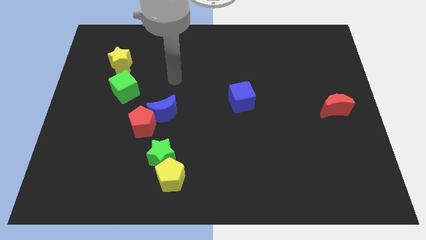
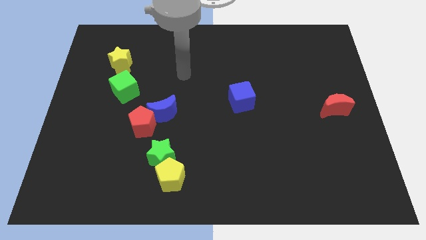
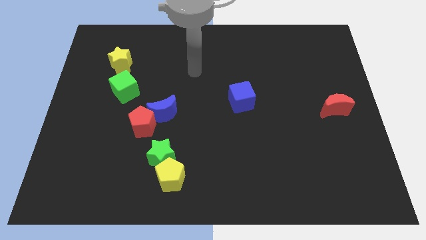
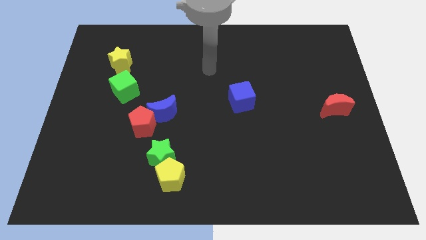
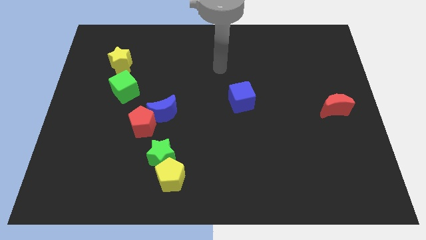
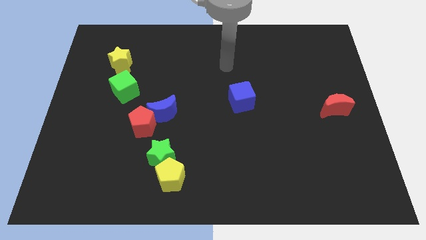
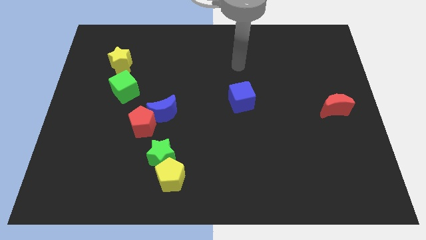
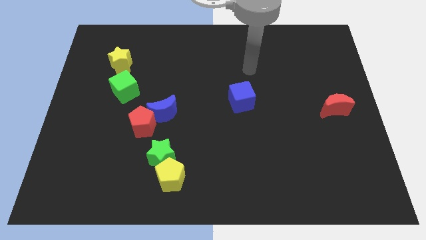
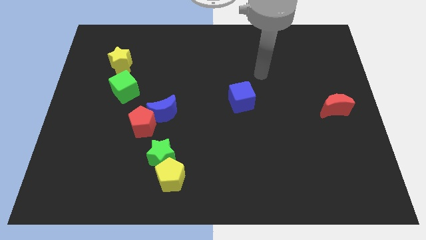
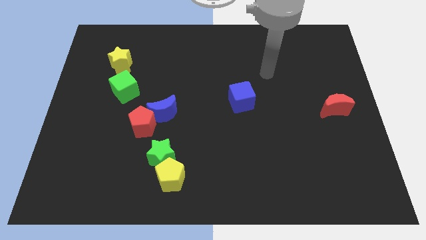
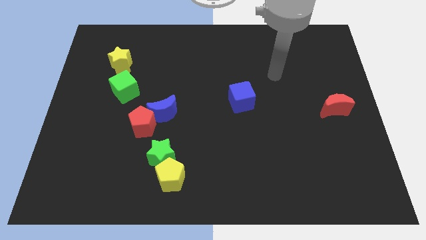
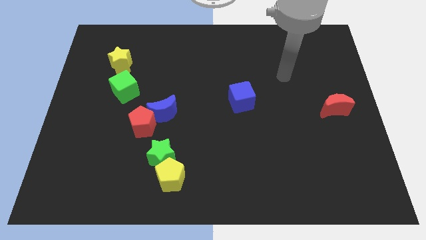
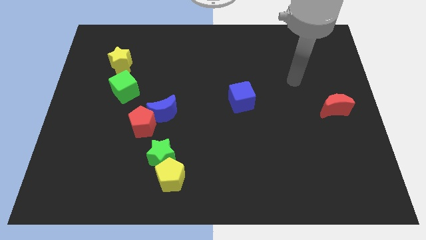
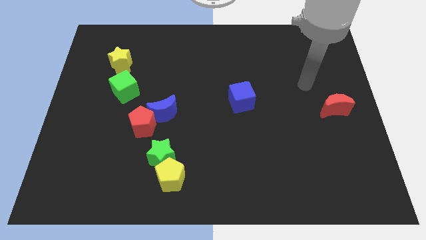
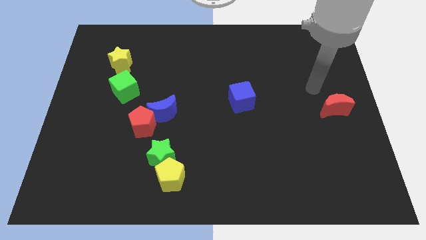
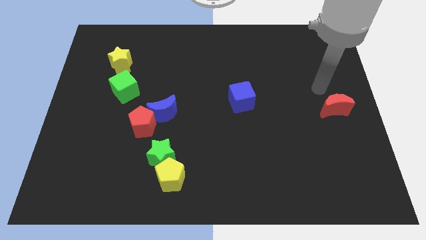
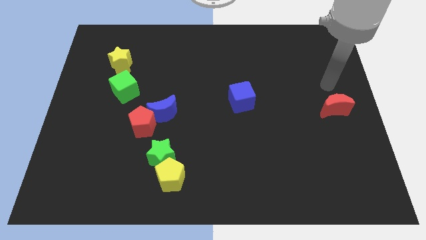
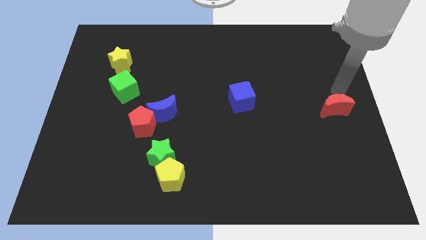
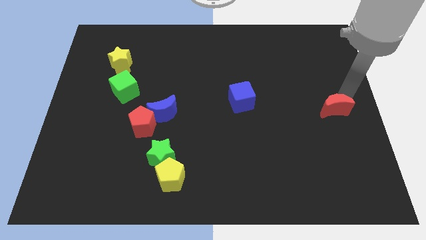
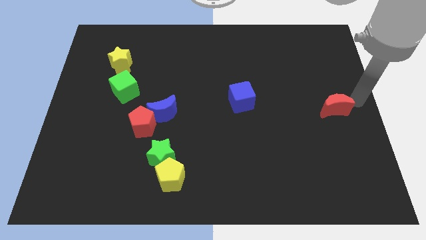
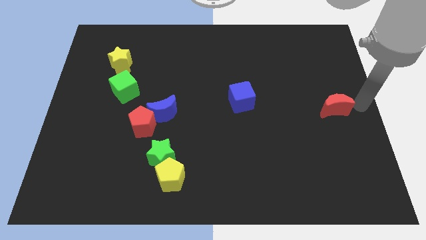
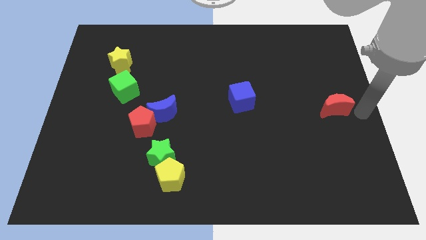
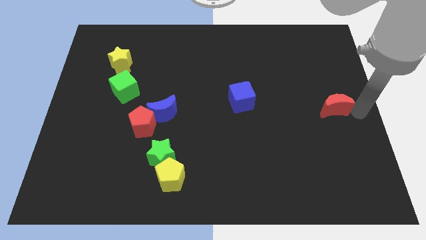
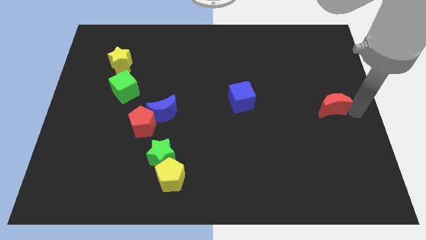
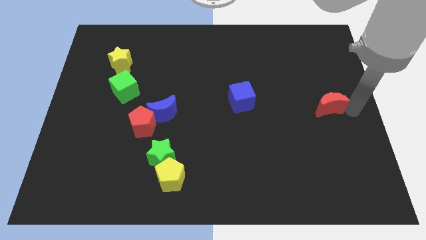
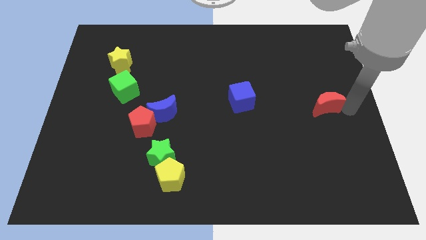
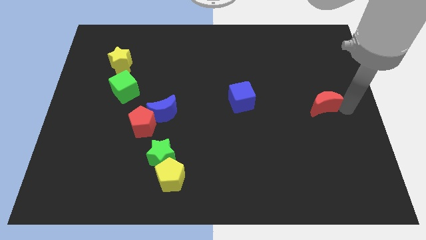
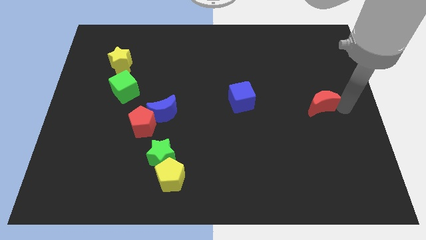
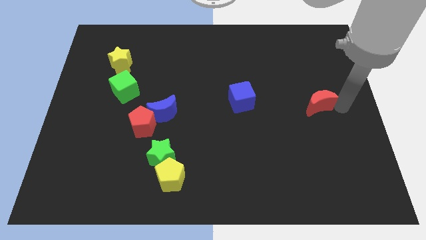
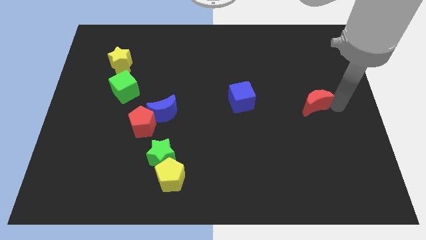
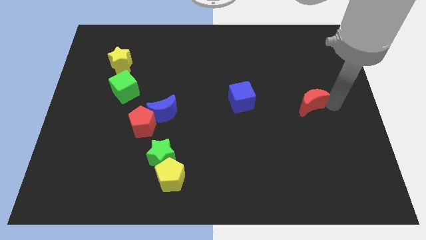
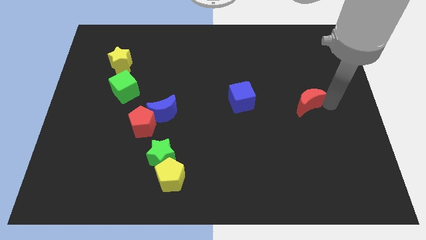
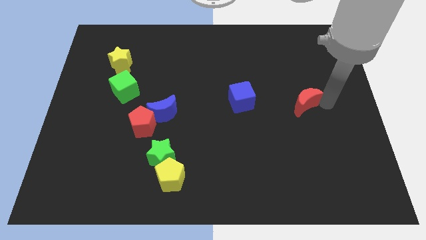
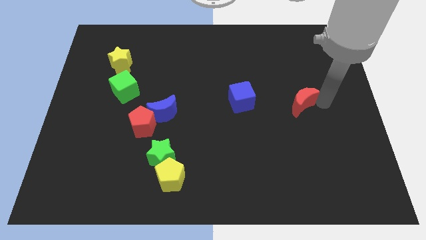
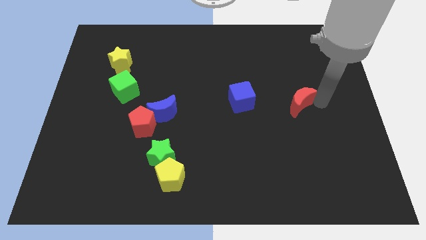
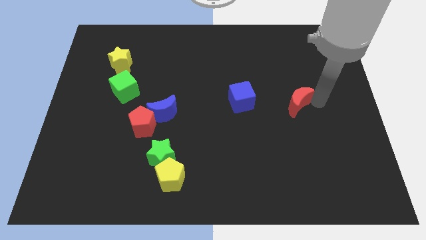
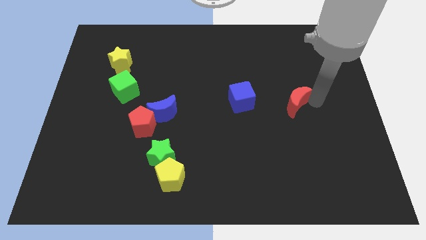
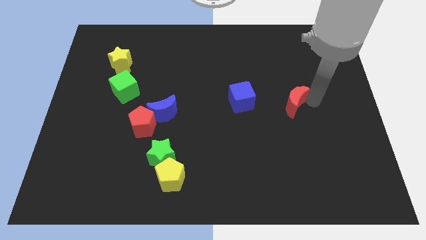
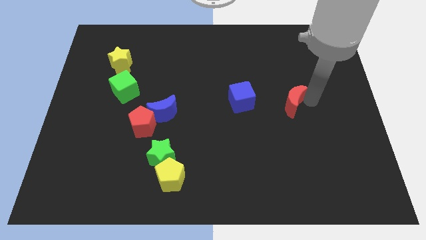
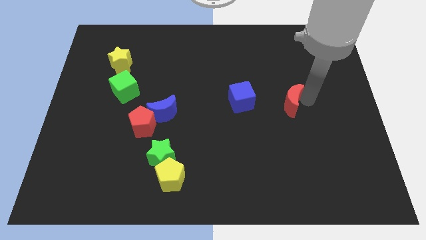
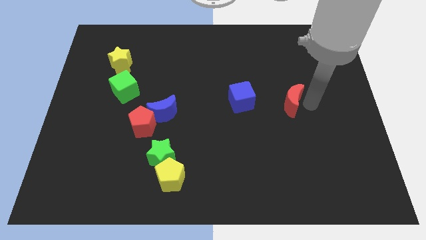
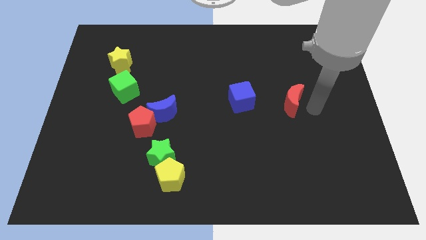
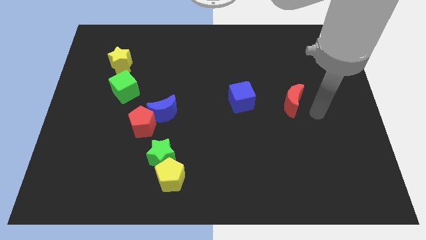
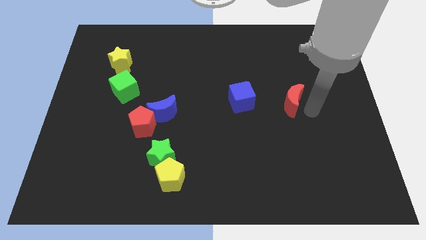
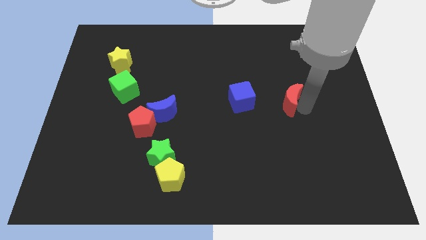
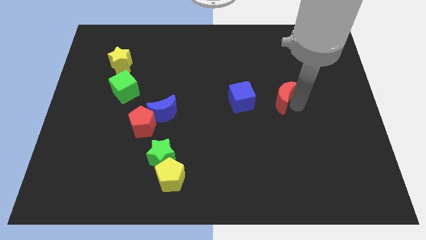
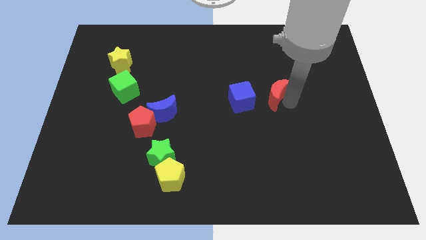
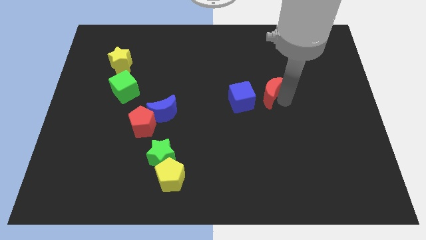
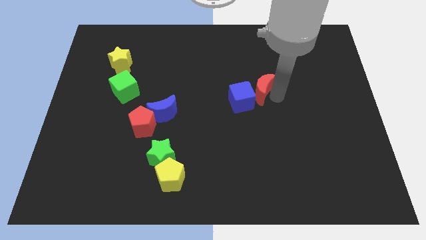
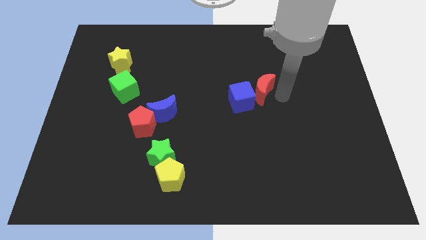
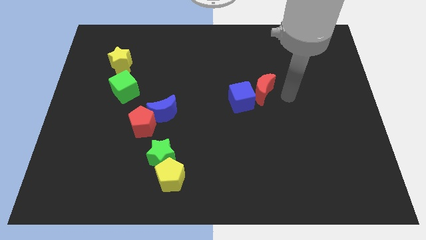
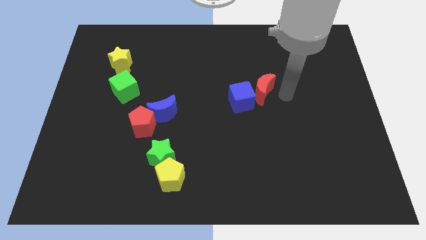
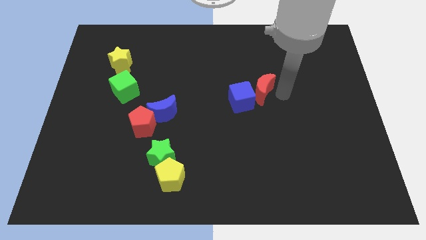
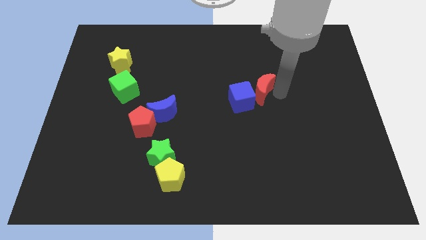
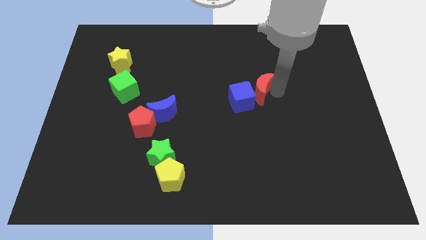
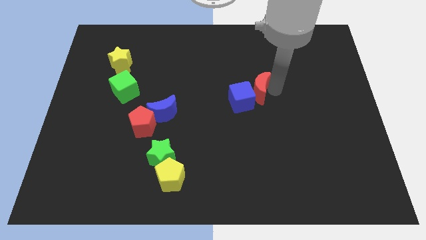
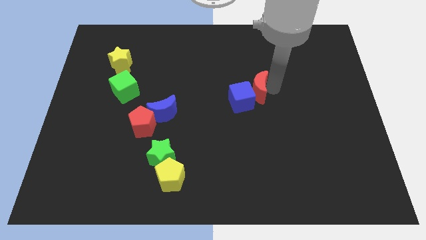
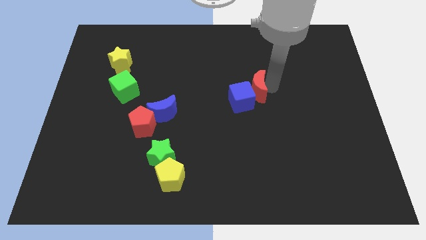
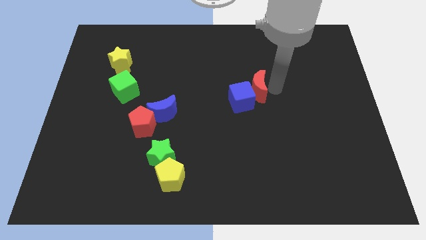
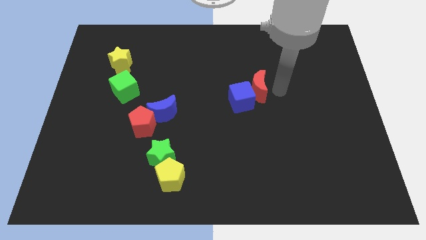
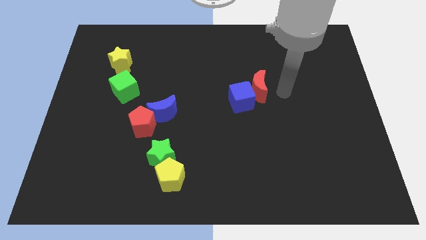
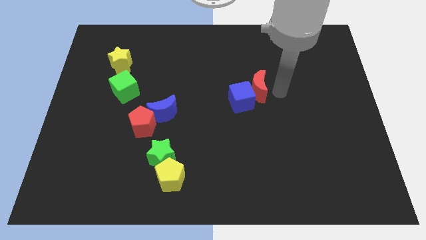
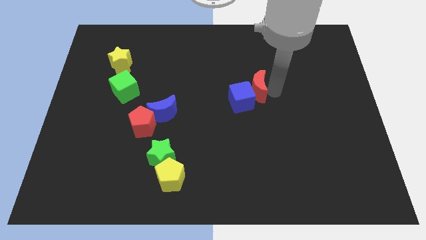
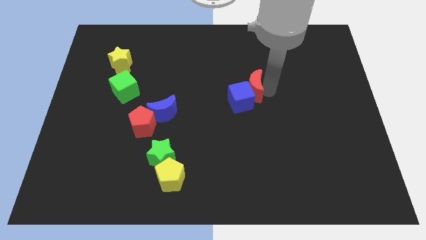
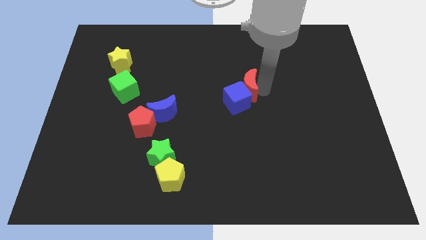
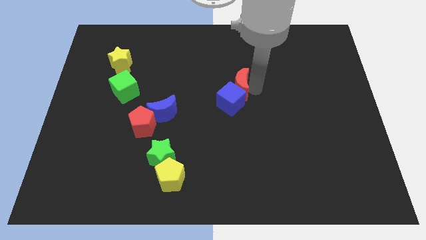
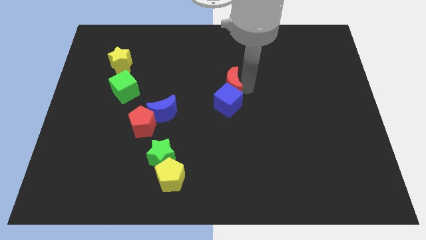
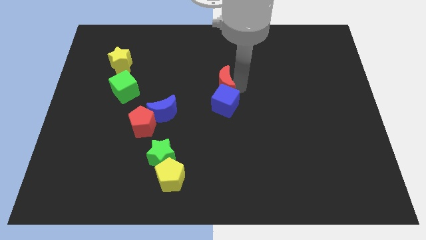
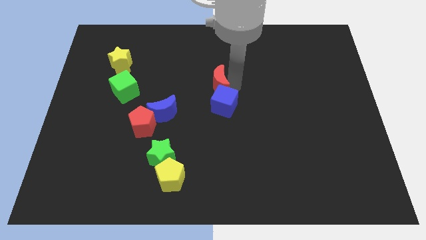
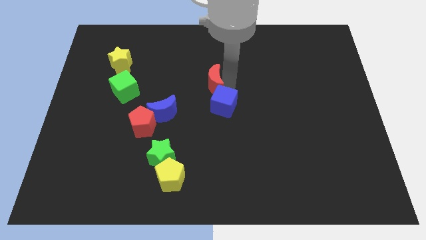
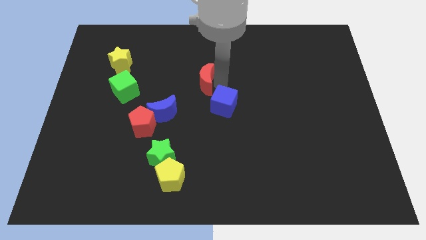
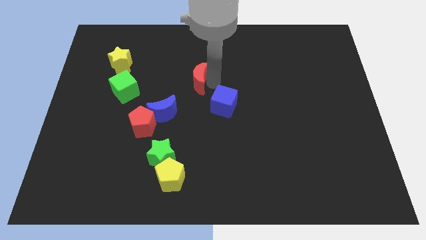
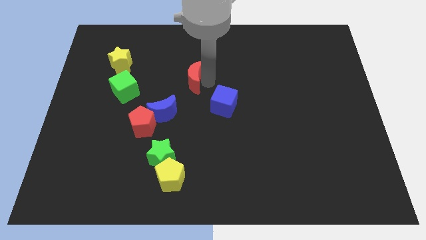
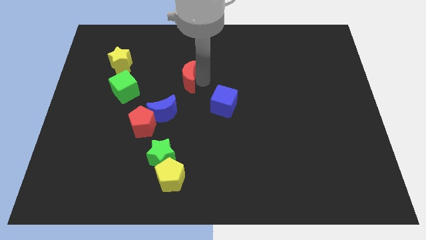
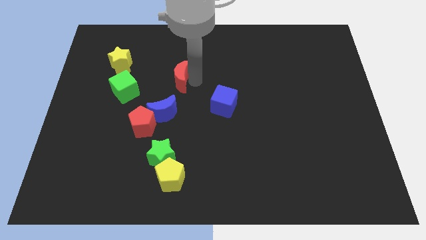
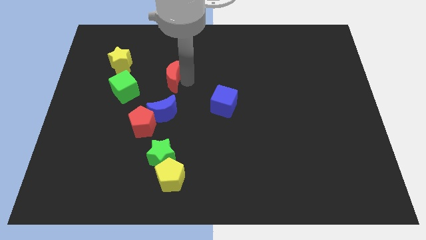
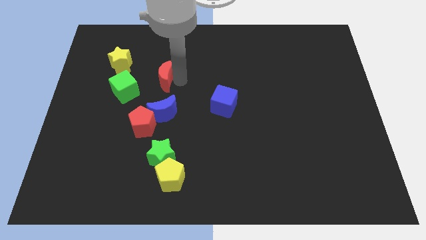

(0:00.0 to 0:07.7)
slide the red moon to the top right side of the green cube
